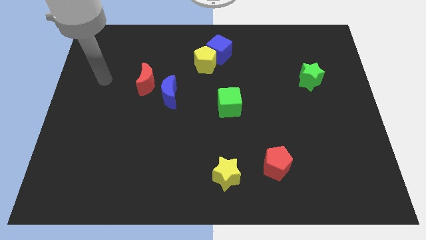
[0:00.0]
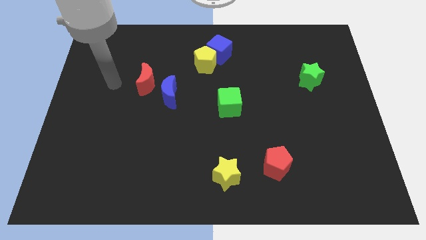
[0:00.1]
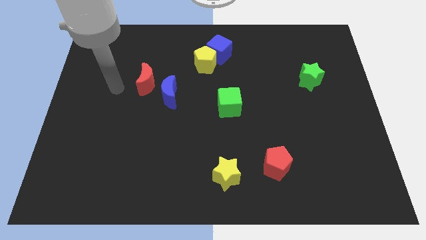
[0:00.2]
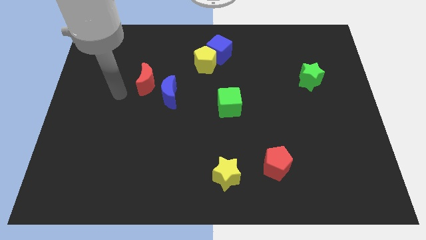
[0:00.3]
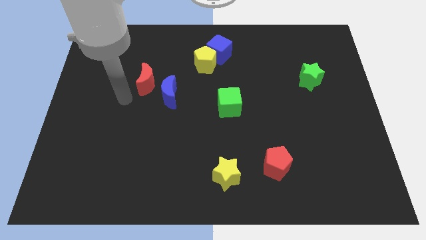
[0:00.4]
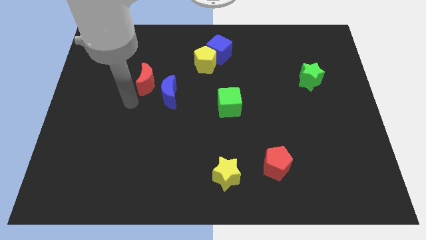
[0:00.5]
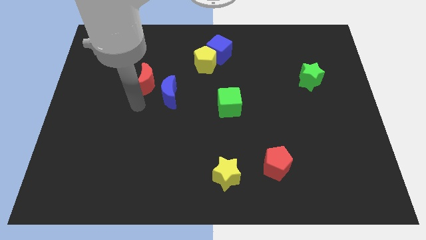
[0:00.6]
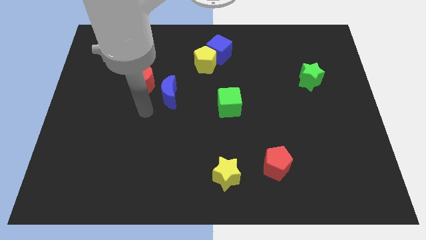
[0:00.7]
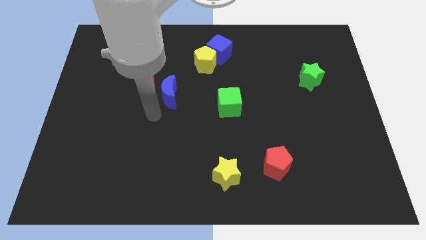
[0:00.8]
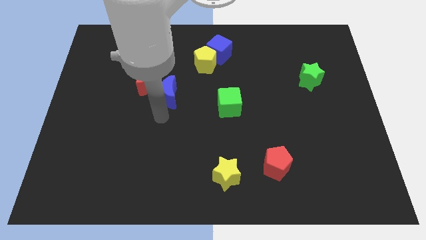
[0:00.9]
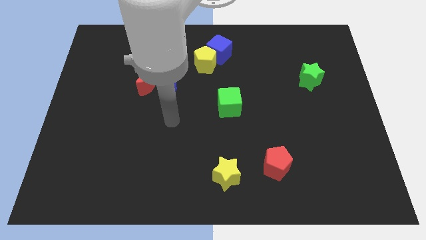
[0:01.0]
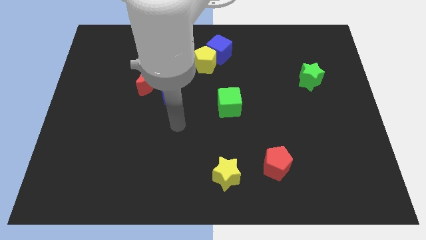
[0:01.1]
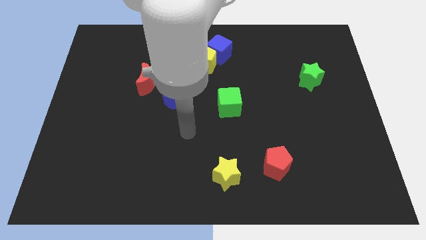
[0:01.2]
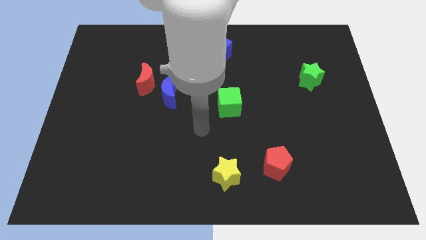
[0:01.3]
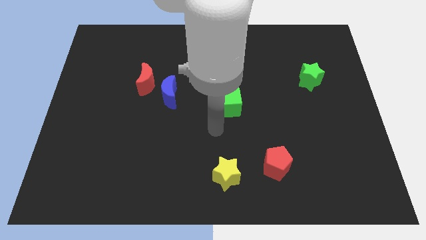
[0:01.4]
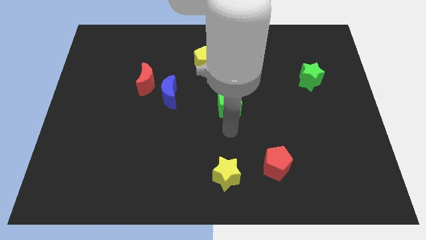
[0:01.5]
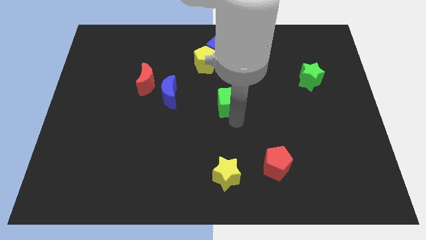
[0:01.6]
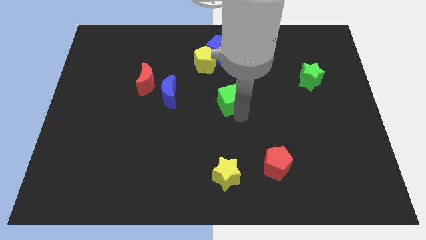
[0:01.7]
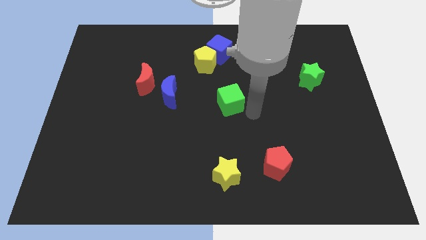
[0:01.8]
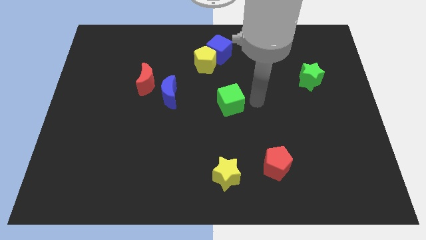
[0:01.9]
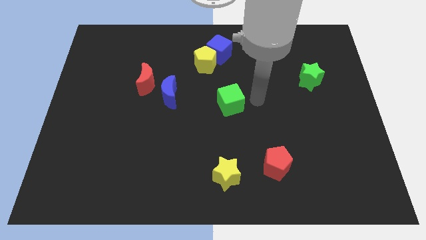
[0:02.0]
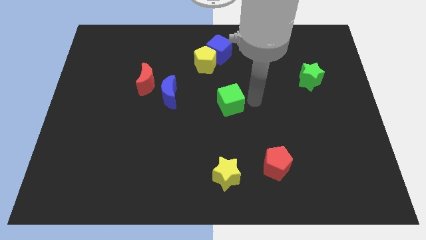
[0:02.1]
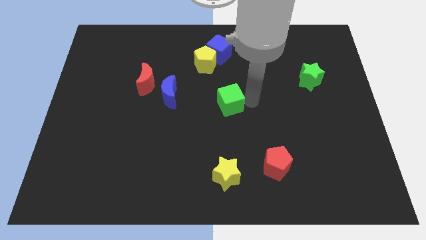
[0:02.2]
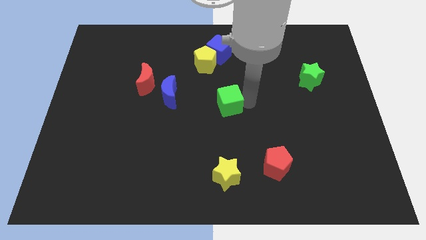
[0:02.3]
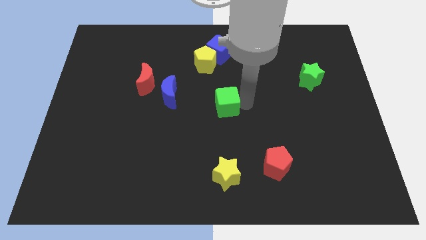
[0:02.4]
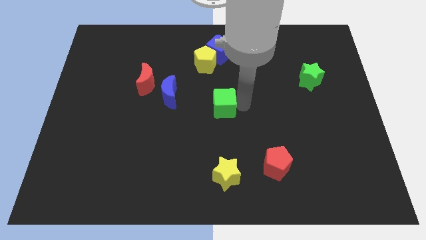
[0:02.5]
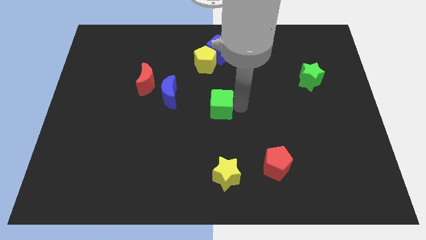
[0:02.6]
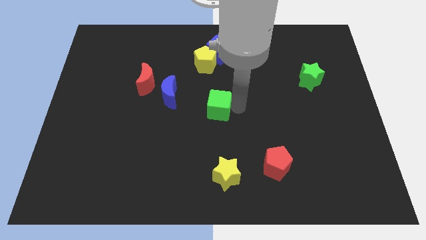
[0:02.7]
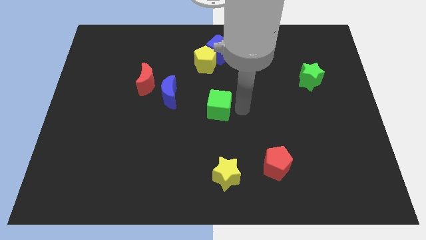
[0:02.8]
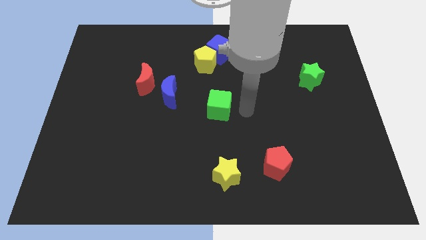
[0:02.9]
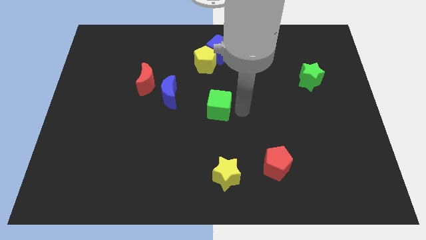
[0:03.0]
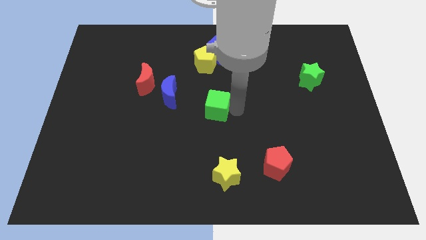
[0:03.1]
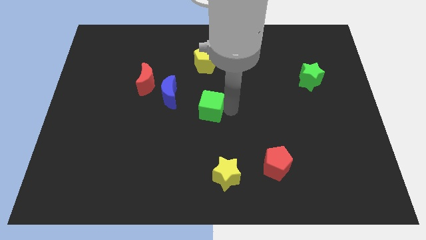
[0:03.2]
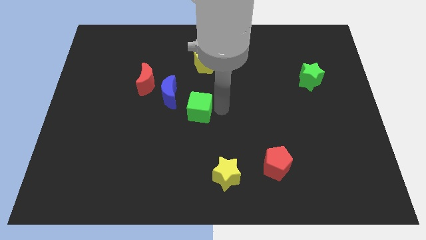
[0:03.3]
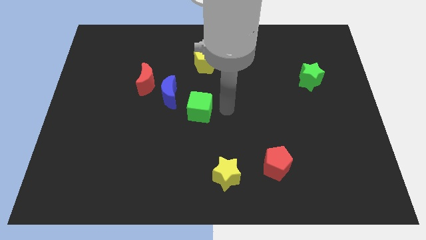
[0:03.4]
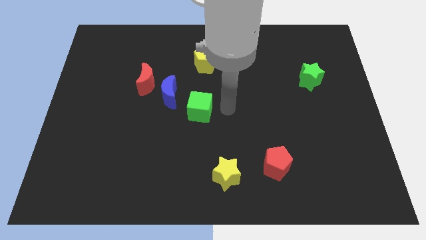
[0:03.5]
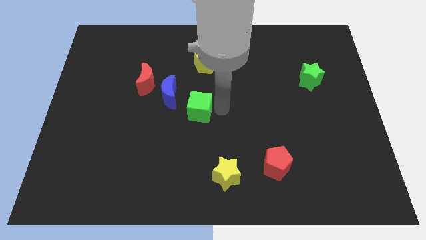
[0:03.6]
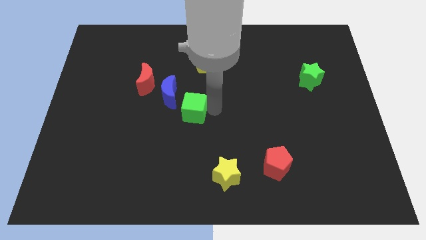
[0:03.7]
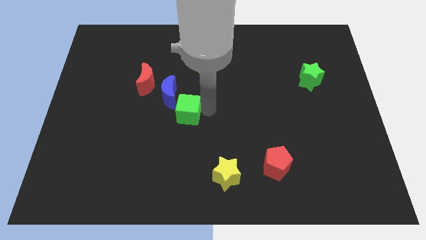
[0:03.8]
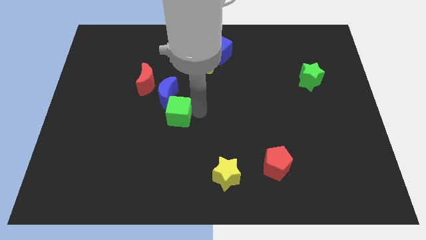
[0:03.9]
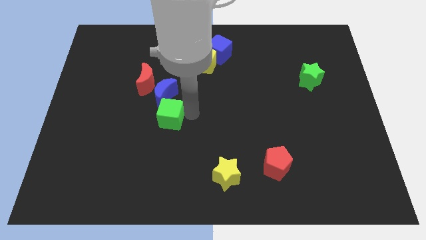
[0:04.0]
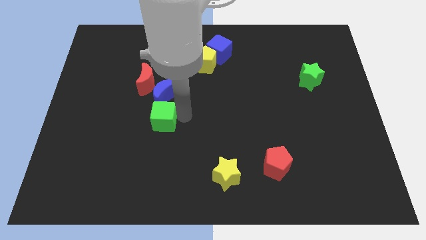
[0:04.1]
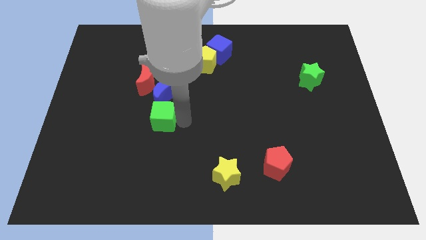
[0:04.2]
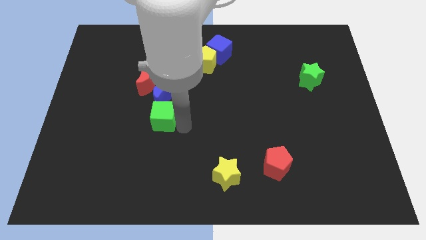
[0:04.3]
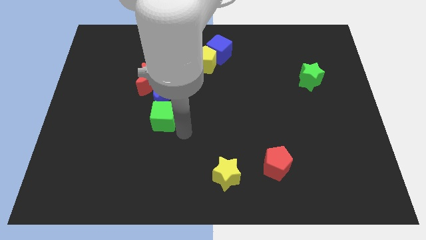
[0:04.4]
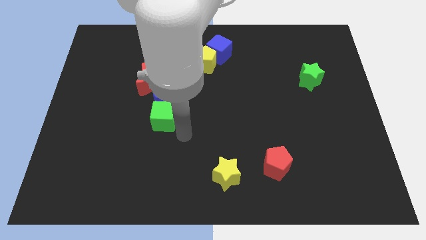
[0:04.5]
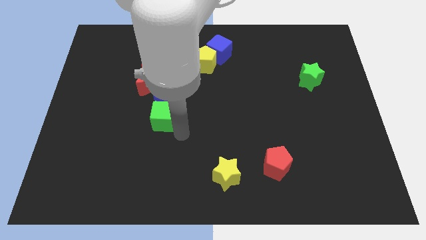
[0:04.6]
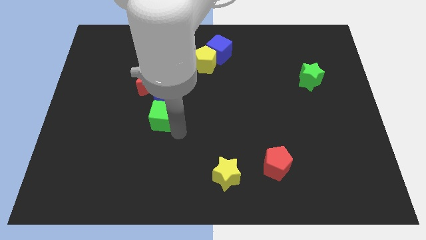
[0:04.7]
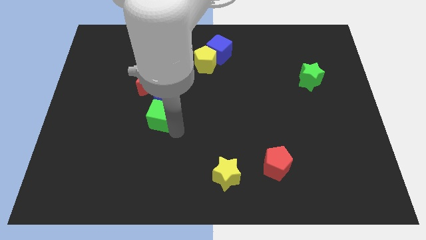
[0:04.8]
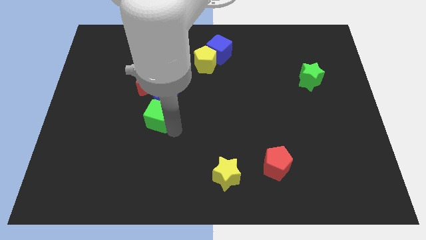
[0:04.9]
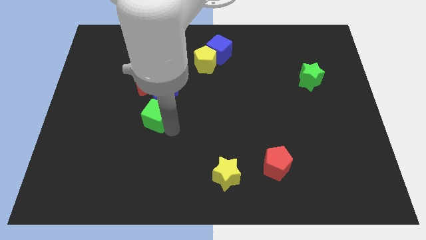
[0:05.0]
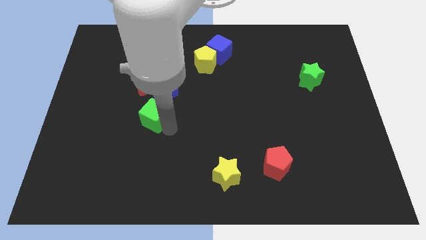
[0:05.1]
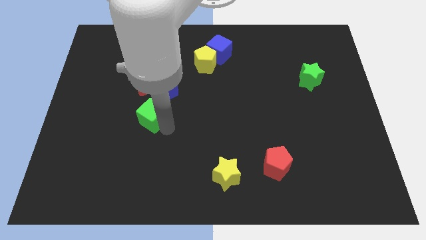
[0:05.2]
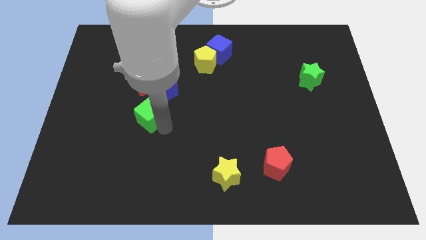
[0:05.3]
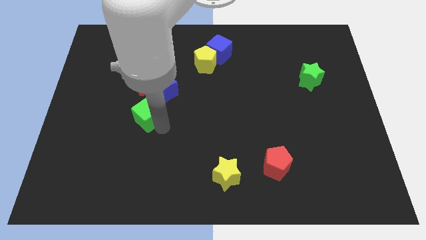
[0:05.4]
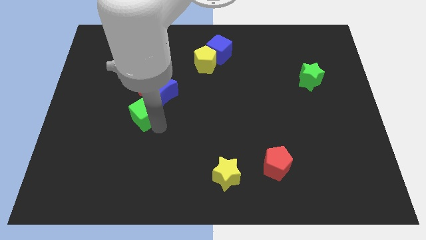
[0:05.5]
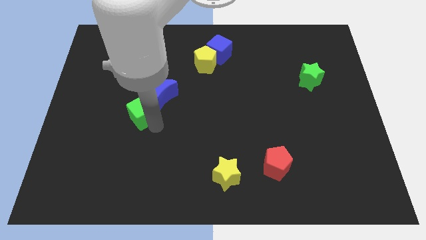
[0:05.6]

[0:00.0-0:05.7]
slide the green cube to the left

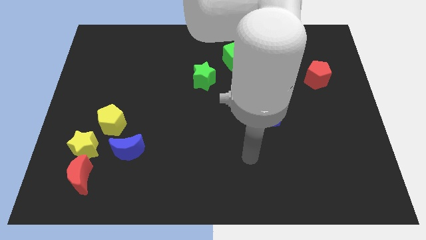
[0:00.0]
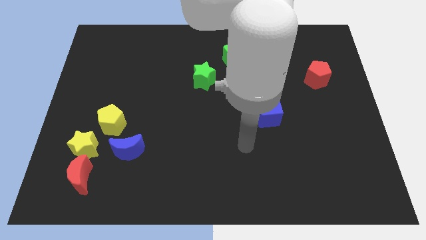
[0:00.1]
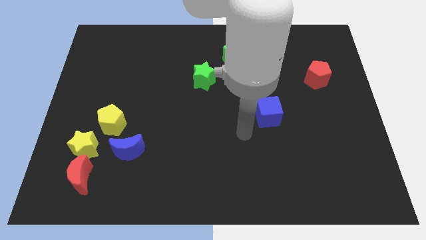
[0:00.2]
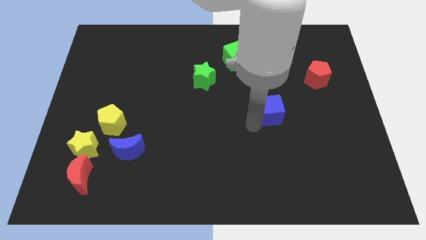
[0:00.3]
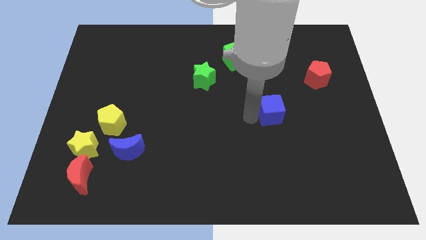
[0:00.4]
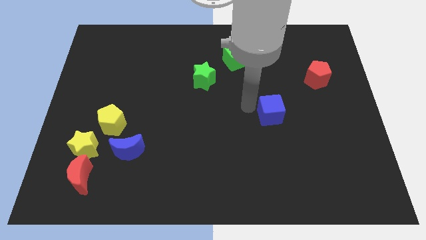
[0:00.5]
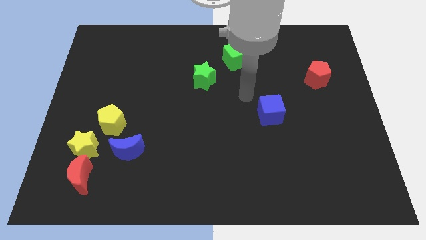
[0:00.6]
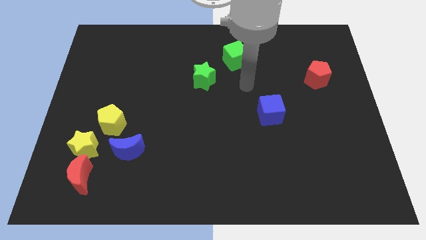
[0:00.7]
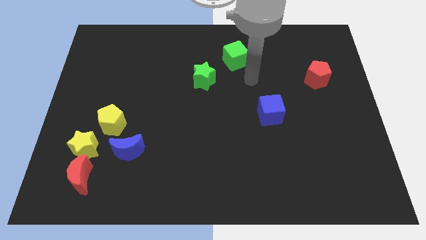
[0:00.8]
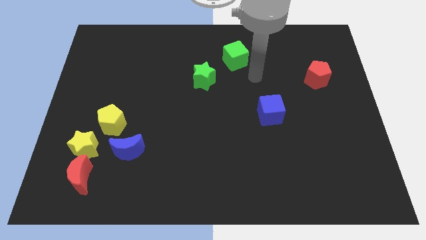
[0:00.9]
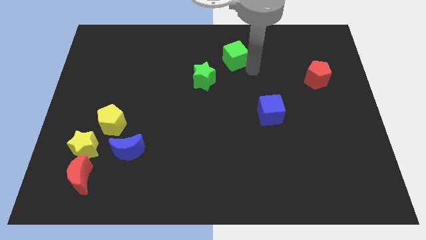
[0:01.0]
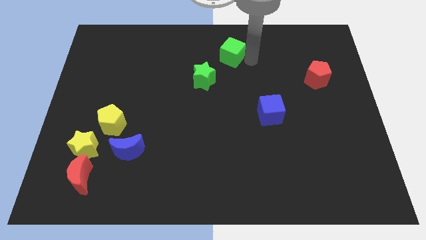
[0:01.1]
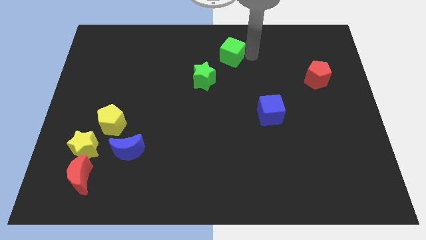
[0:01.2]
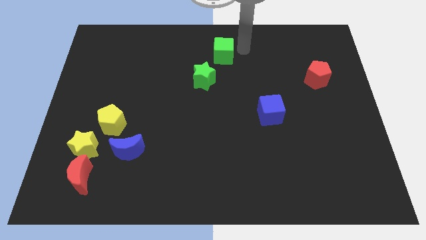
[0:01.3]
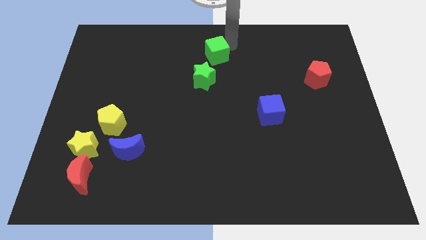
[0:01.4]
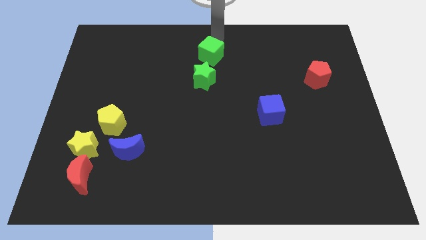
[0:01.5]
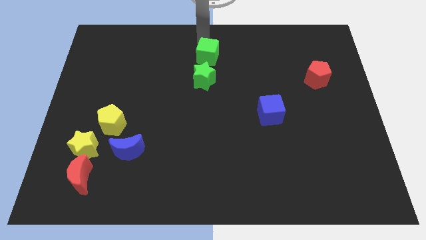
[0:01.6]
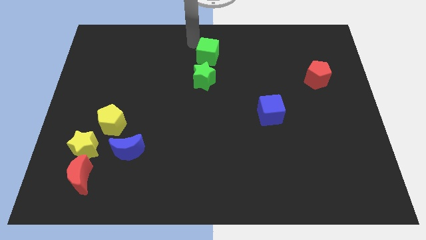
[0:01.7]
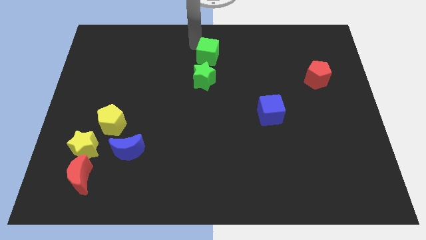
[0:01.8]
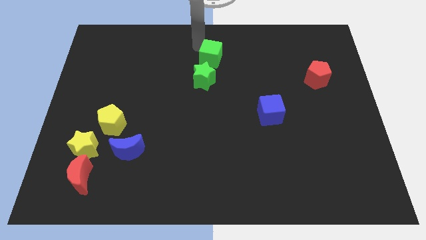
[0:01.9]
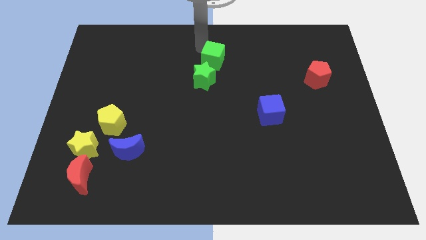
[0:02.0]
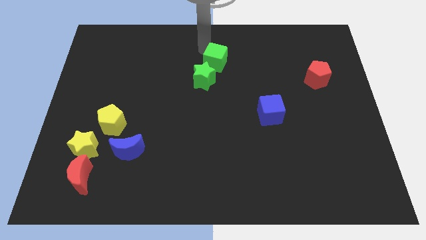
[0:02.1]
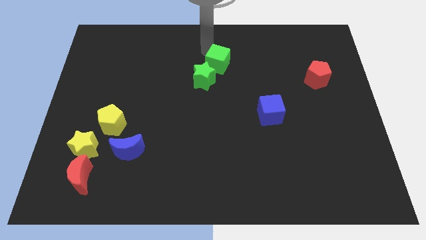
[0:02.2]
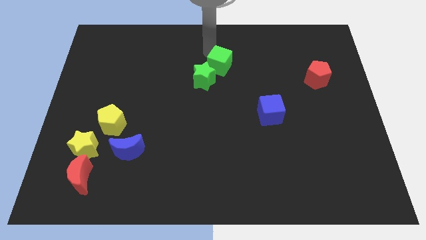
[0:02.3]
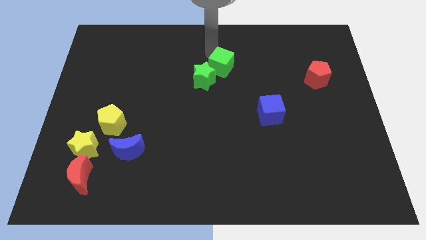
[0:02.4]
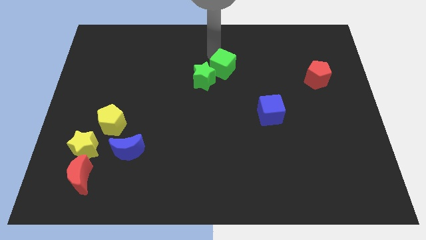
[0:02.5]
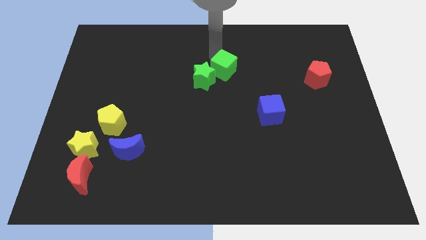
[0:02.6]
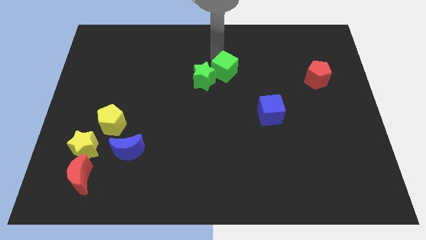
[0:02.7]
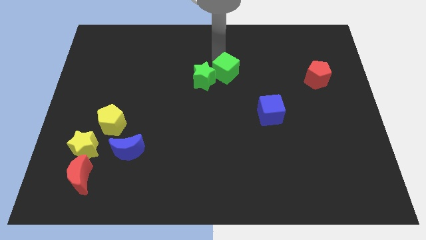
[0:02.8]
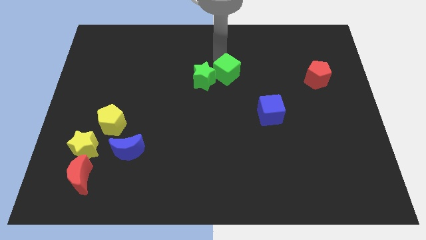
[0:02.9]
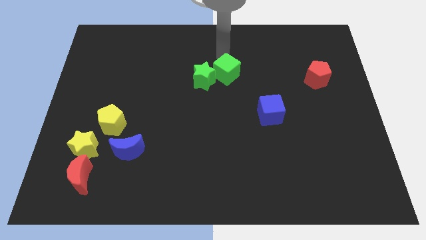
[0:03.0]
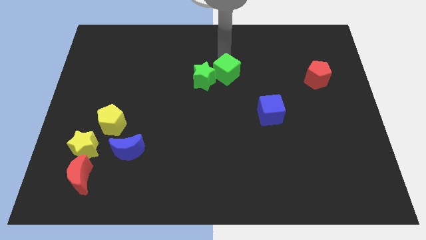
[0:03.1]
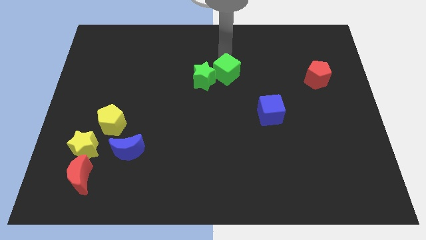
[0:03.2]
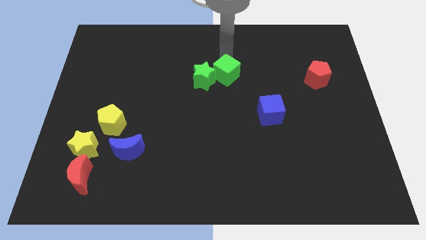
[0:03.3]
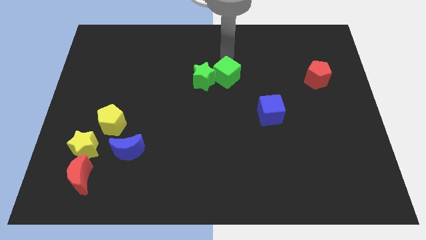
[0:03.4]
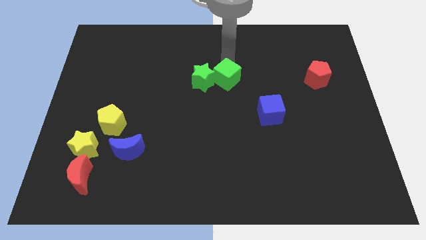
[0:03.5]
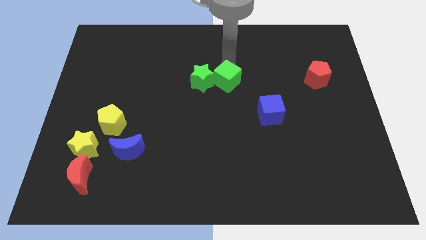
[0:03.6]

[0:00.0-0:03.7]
slightly slide the green cube down
